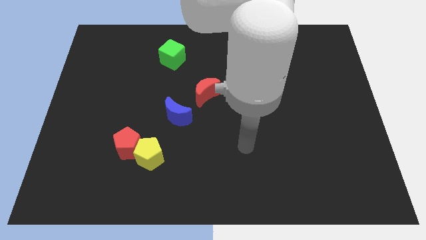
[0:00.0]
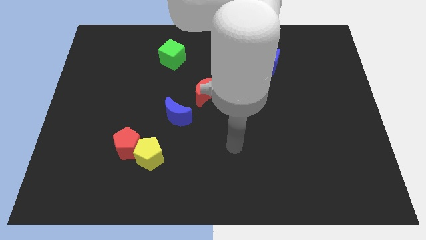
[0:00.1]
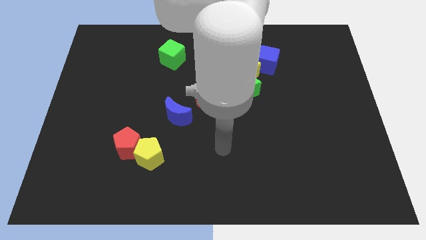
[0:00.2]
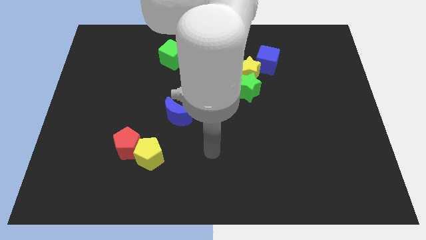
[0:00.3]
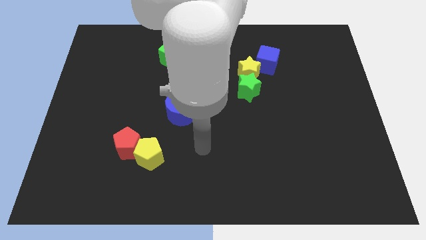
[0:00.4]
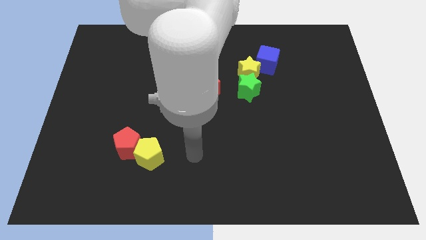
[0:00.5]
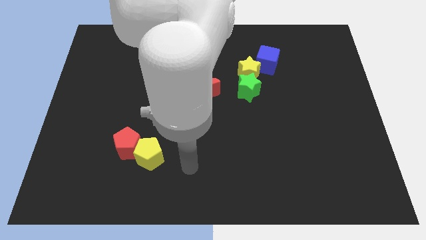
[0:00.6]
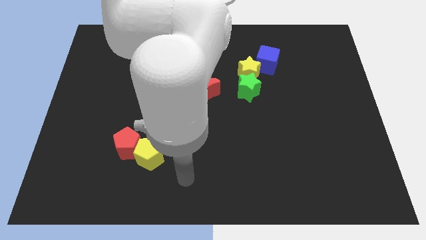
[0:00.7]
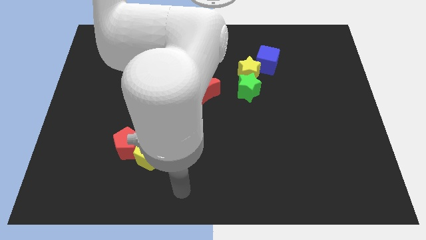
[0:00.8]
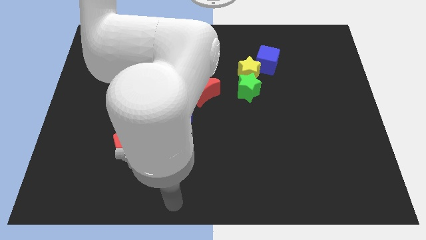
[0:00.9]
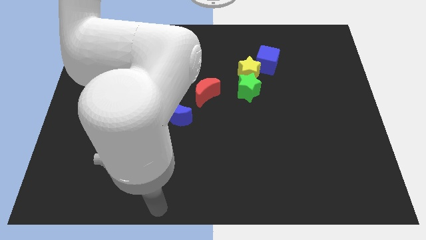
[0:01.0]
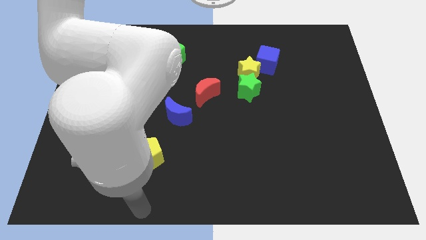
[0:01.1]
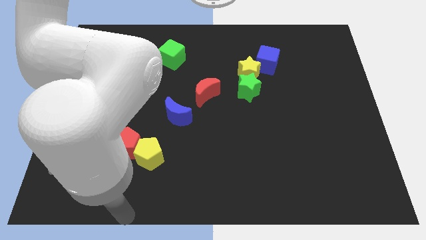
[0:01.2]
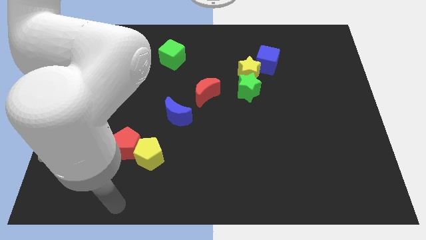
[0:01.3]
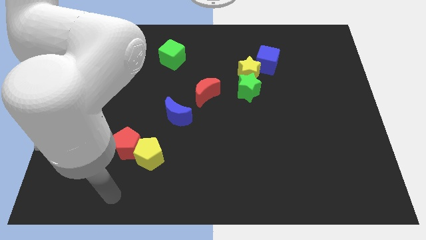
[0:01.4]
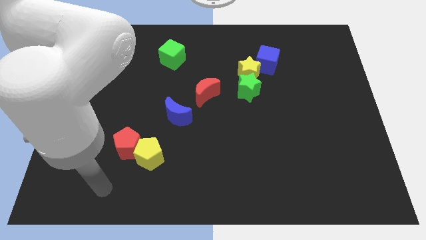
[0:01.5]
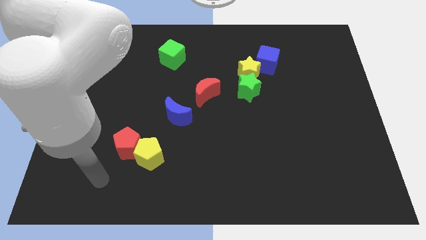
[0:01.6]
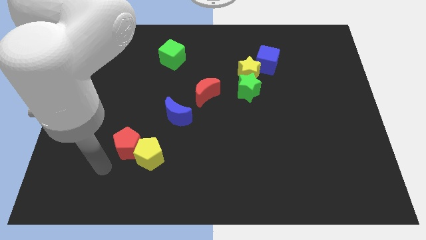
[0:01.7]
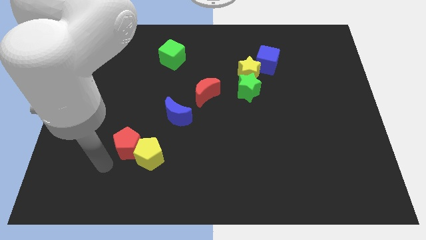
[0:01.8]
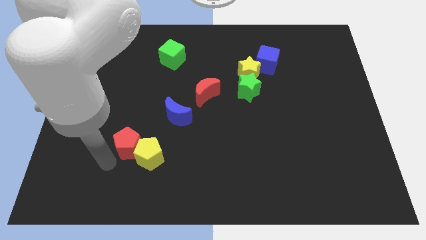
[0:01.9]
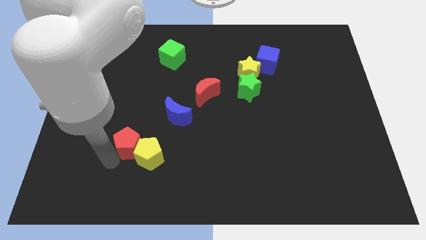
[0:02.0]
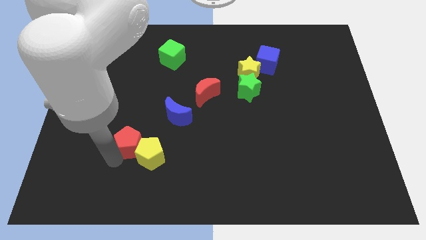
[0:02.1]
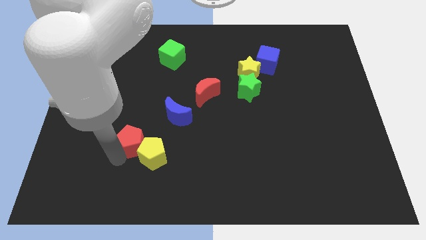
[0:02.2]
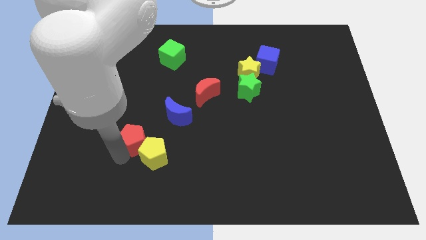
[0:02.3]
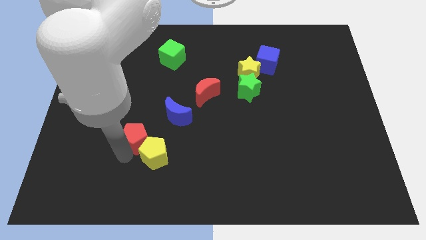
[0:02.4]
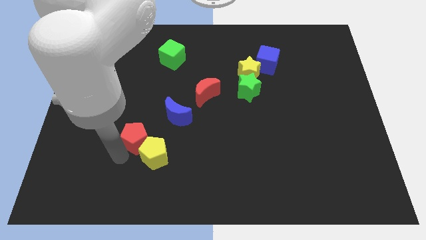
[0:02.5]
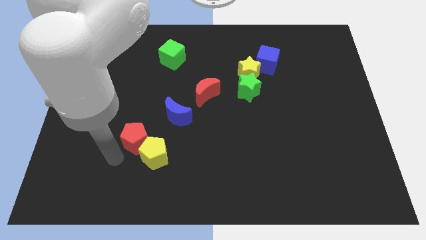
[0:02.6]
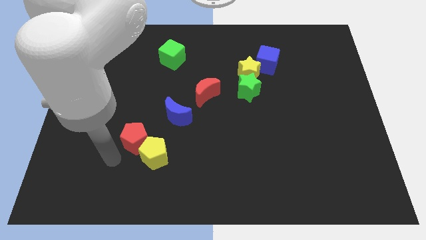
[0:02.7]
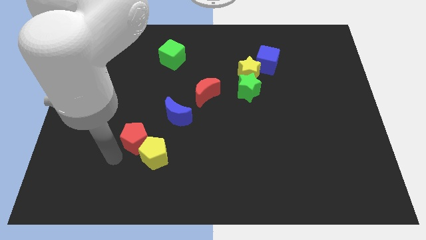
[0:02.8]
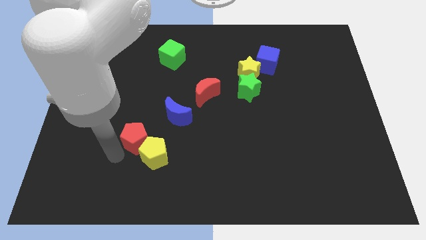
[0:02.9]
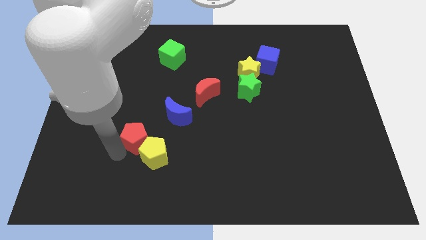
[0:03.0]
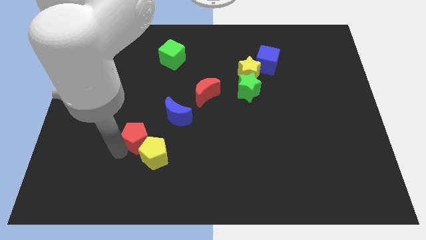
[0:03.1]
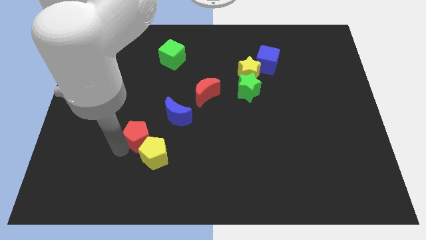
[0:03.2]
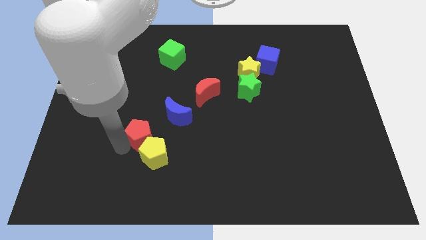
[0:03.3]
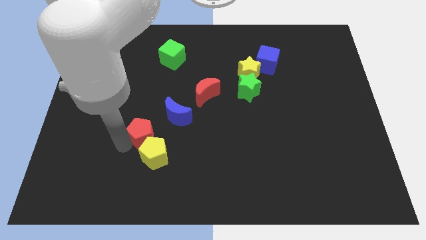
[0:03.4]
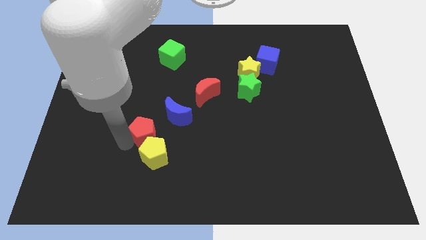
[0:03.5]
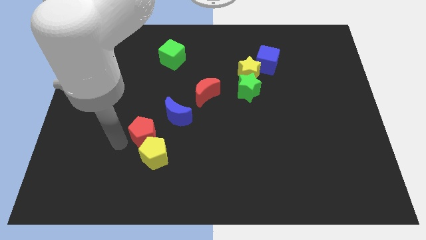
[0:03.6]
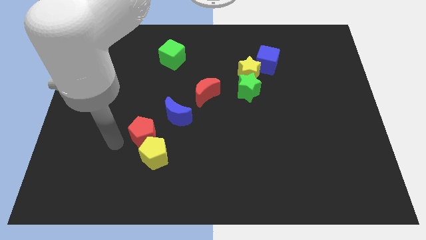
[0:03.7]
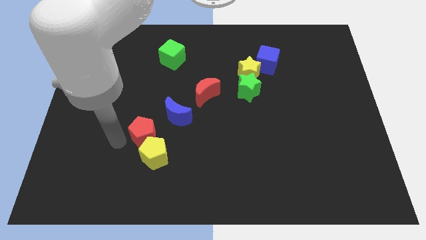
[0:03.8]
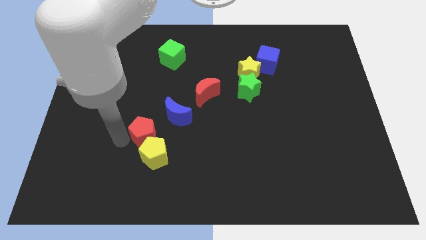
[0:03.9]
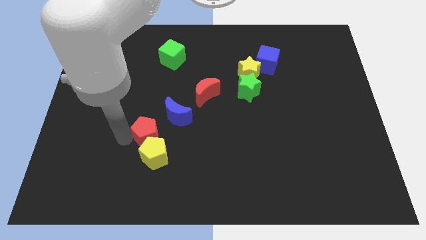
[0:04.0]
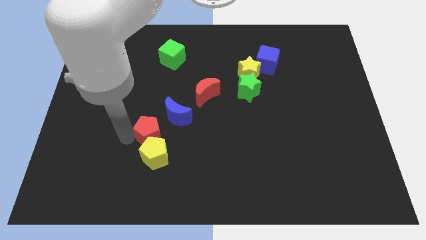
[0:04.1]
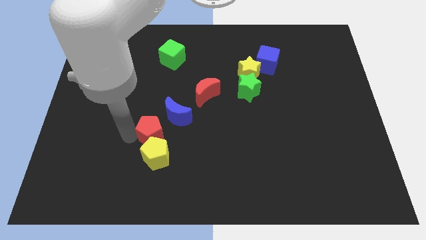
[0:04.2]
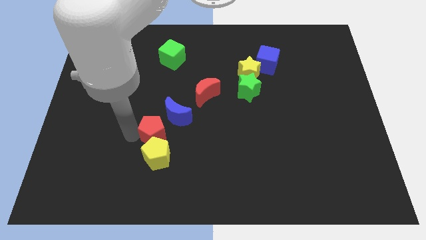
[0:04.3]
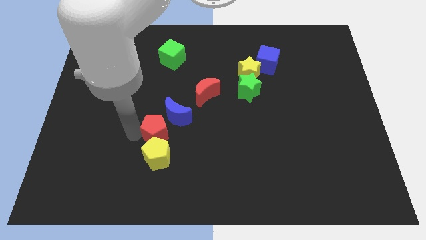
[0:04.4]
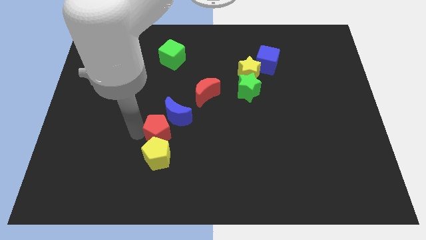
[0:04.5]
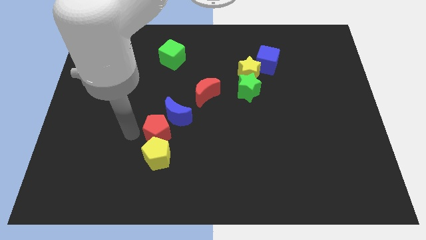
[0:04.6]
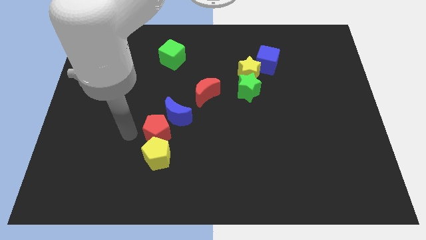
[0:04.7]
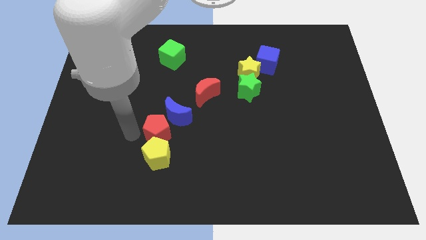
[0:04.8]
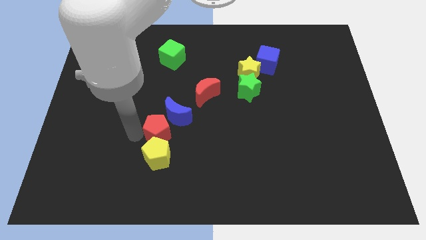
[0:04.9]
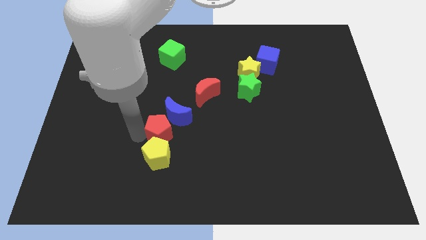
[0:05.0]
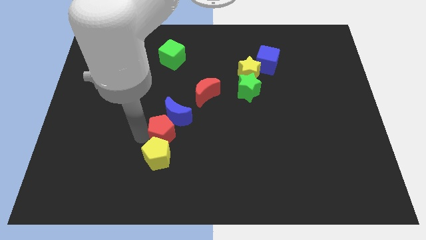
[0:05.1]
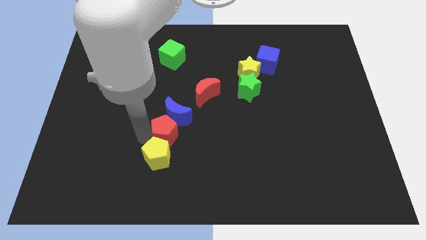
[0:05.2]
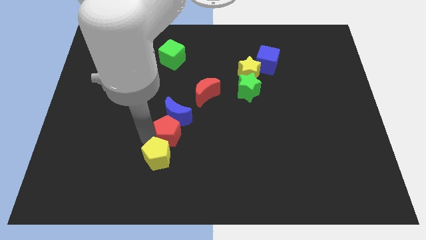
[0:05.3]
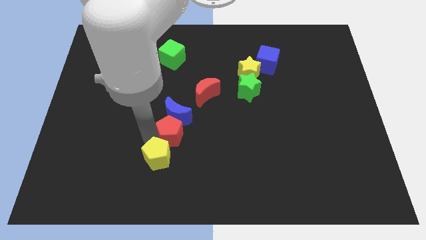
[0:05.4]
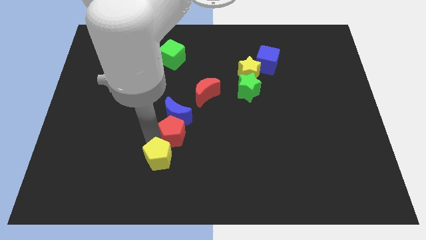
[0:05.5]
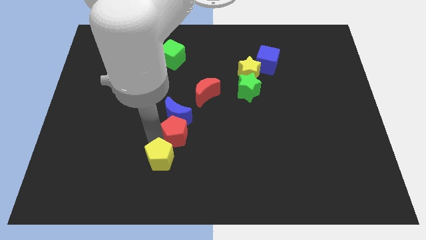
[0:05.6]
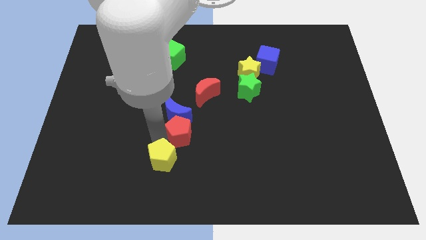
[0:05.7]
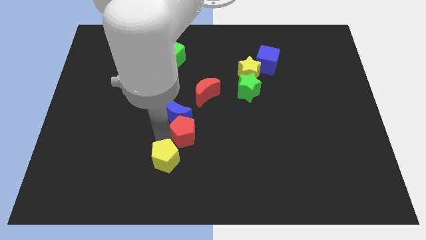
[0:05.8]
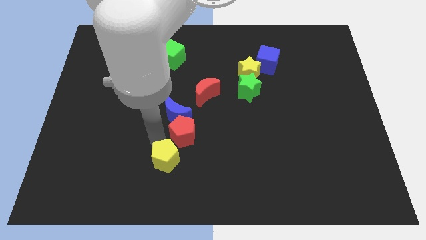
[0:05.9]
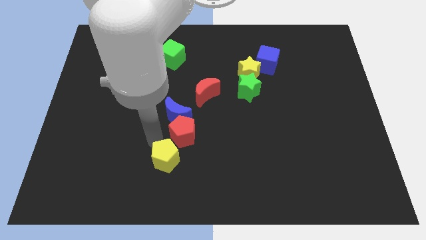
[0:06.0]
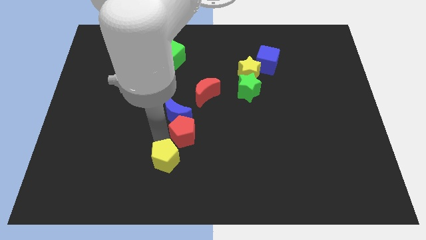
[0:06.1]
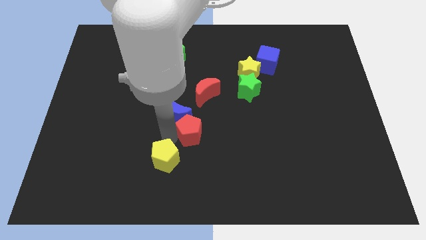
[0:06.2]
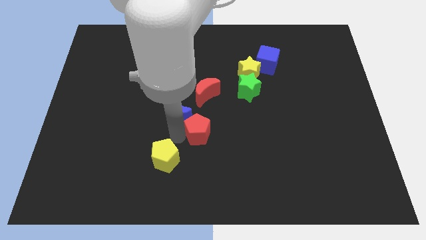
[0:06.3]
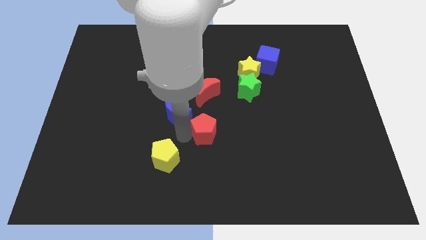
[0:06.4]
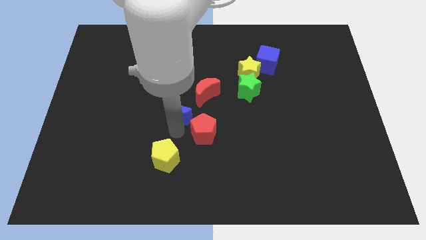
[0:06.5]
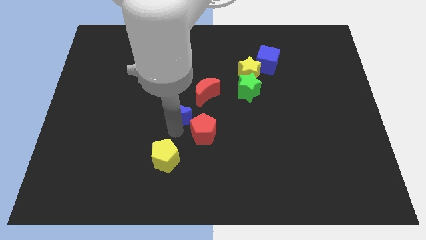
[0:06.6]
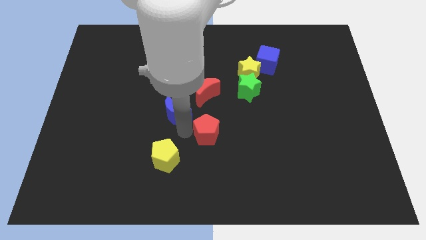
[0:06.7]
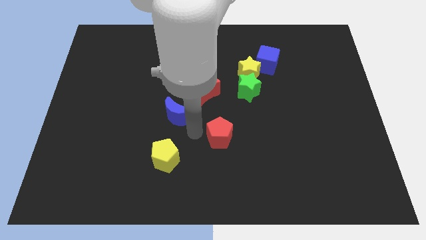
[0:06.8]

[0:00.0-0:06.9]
move the red pentagon right

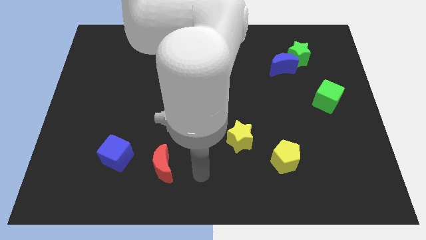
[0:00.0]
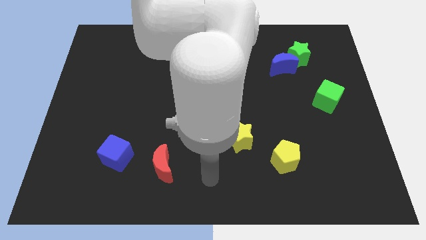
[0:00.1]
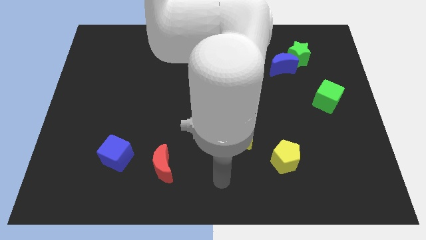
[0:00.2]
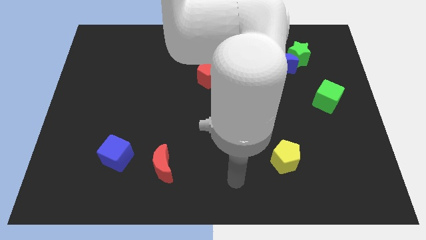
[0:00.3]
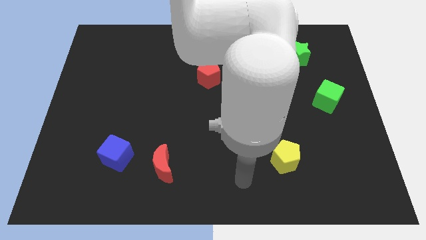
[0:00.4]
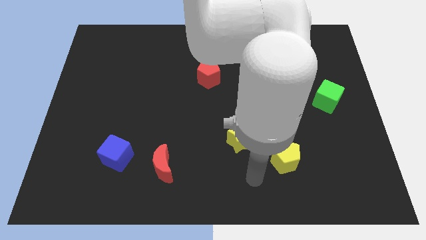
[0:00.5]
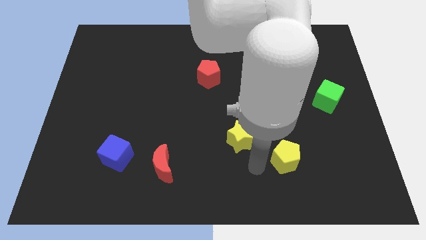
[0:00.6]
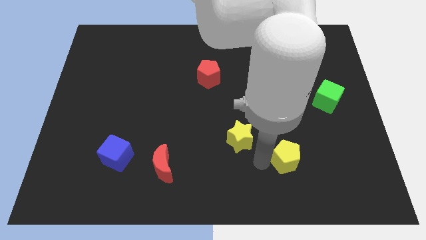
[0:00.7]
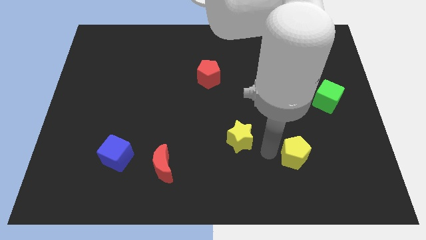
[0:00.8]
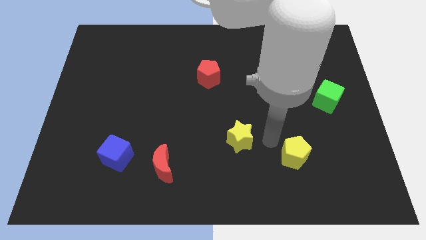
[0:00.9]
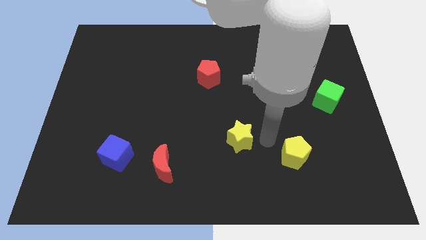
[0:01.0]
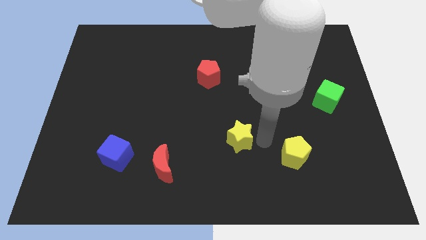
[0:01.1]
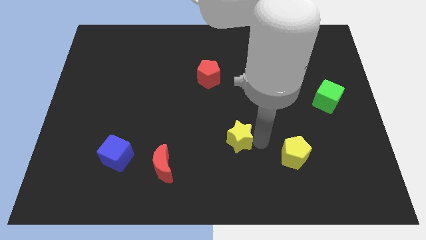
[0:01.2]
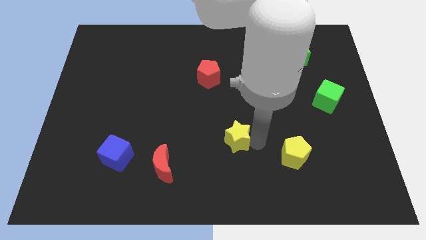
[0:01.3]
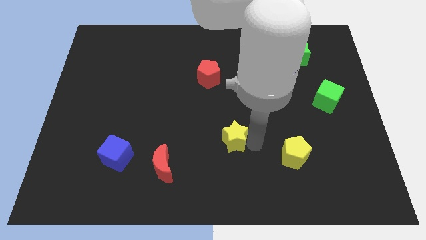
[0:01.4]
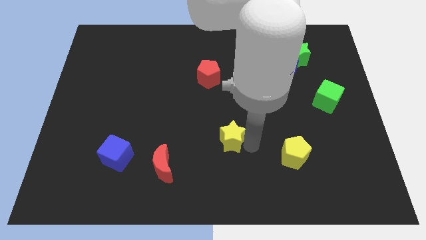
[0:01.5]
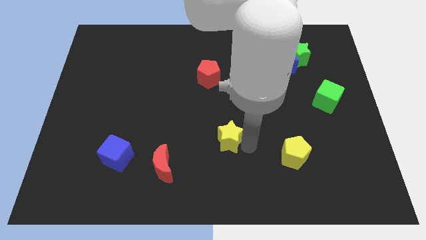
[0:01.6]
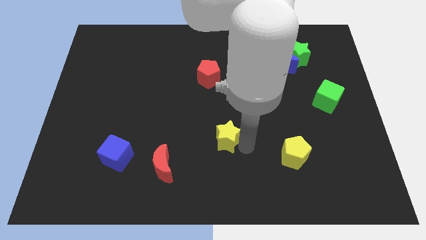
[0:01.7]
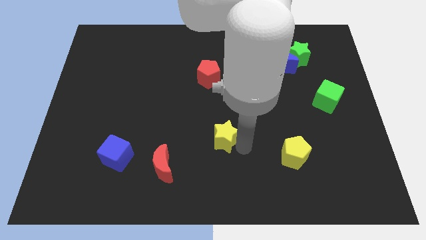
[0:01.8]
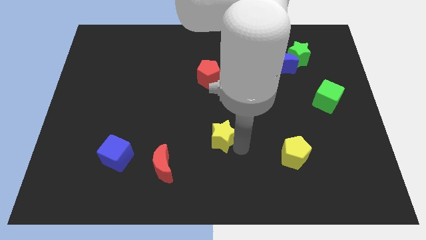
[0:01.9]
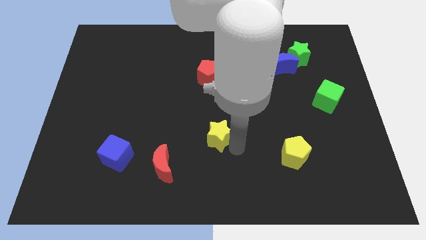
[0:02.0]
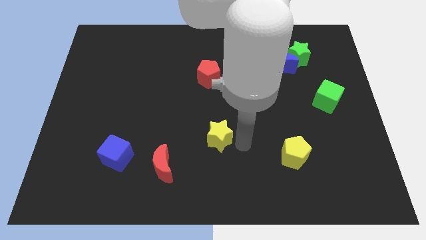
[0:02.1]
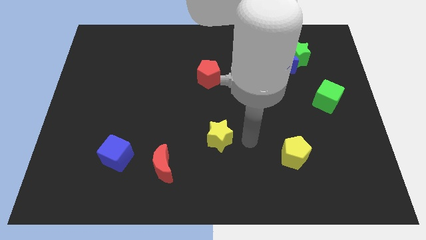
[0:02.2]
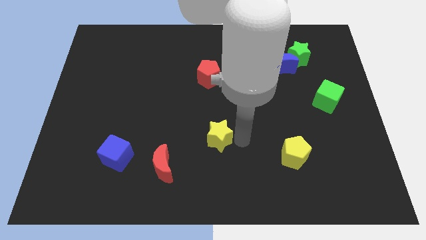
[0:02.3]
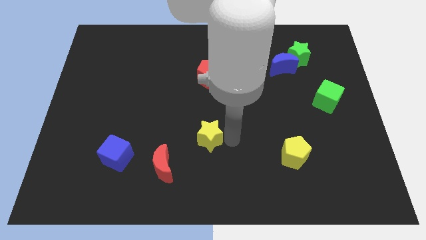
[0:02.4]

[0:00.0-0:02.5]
slightly slide the yellow star left
